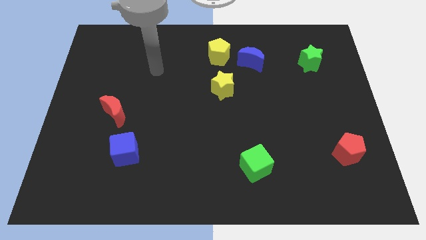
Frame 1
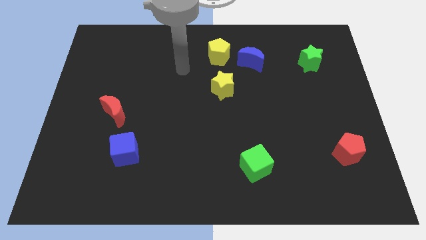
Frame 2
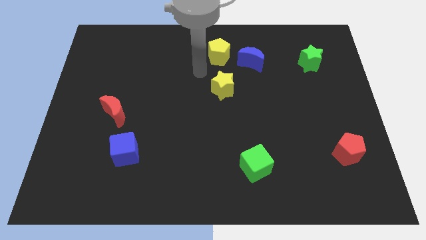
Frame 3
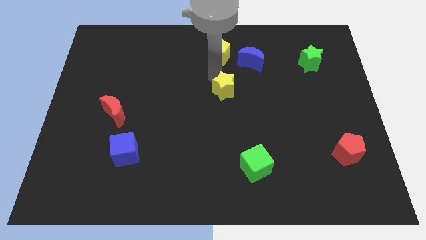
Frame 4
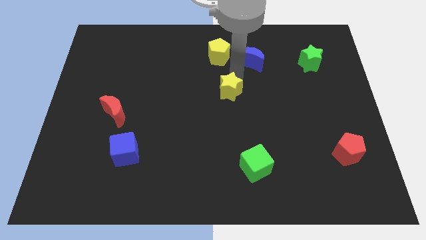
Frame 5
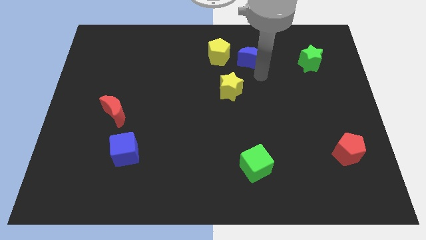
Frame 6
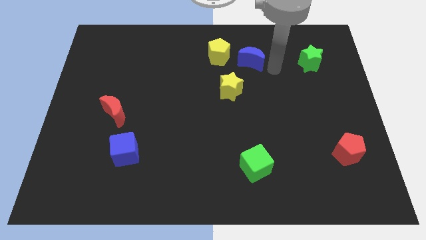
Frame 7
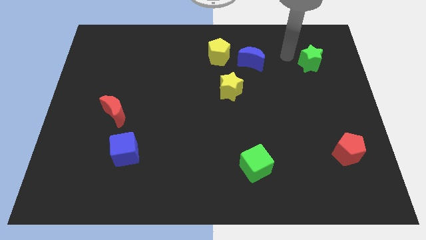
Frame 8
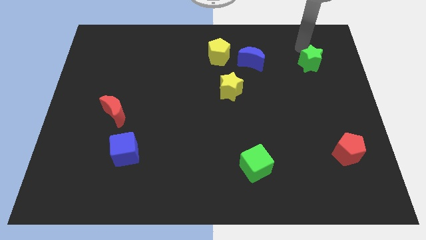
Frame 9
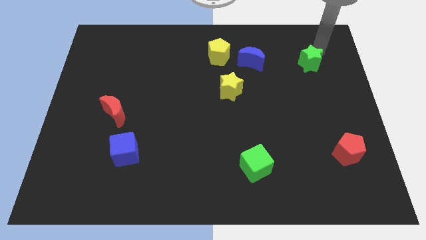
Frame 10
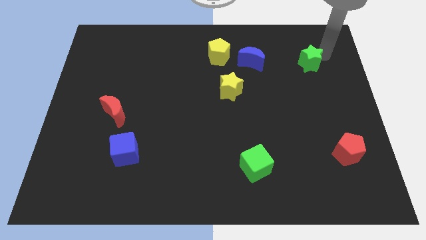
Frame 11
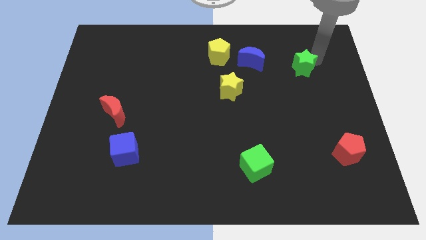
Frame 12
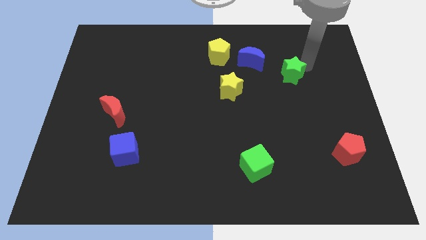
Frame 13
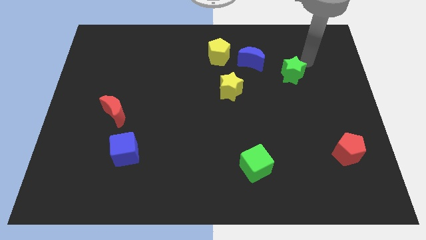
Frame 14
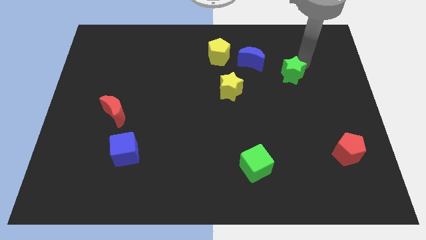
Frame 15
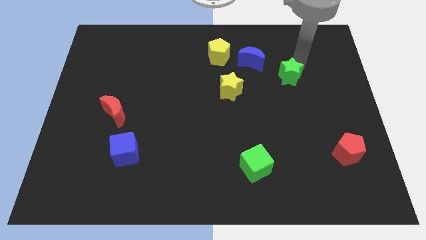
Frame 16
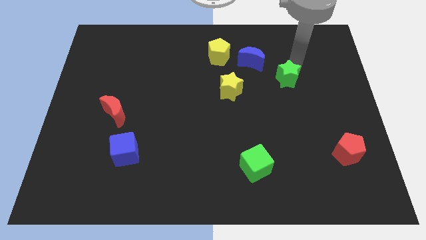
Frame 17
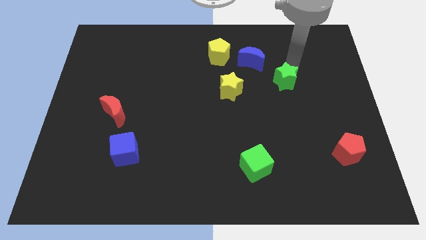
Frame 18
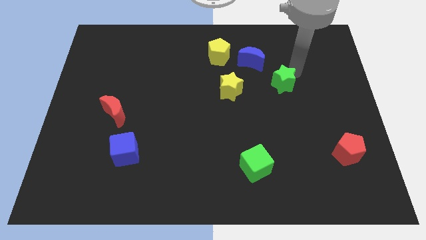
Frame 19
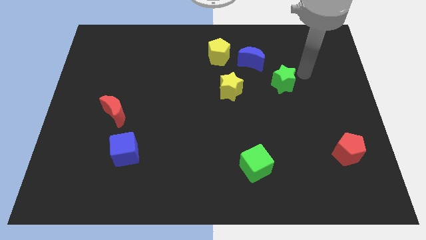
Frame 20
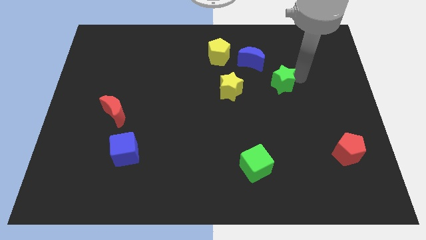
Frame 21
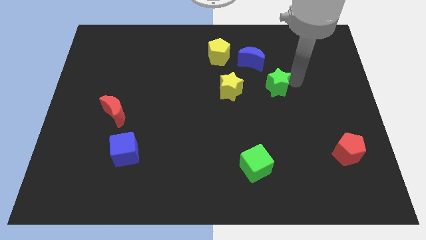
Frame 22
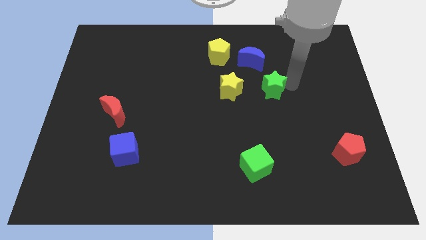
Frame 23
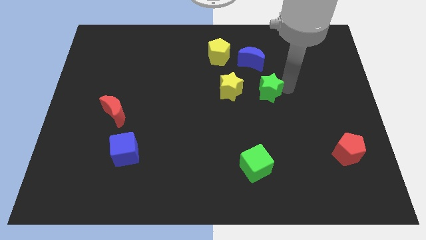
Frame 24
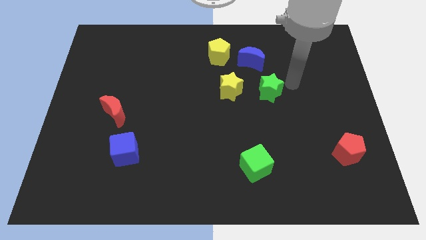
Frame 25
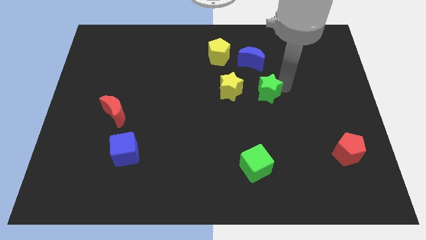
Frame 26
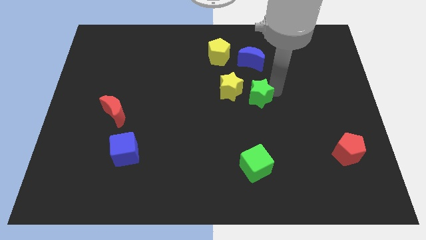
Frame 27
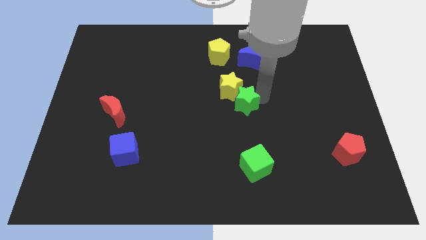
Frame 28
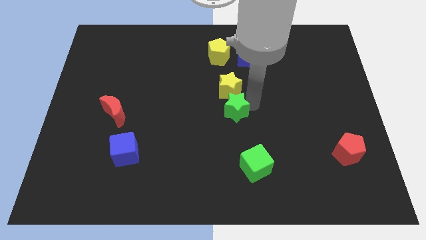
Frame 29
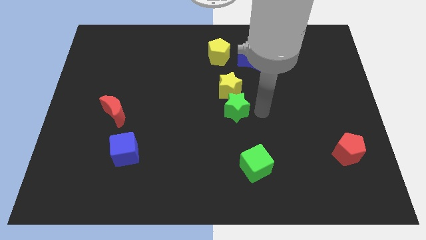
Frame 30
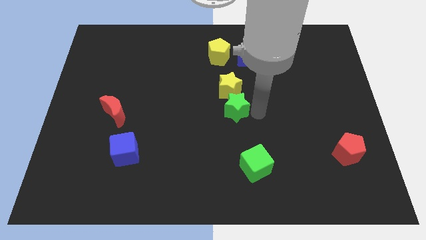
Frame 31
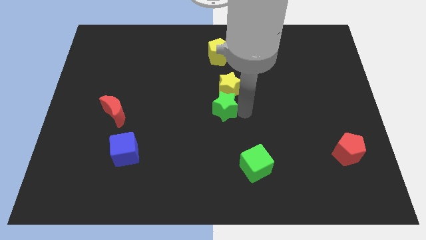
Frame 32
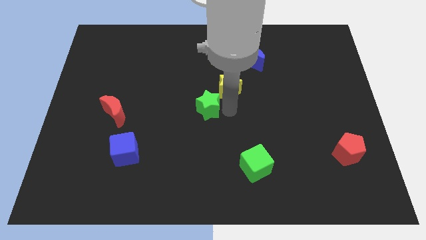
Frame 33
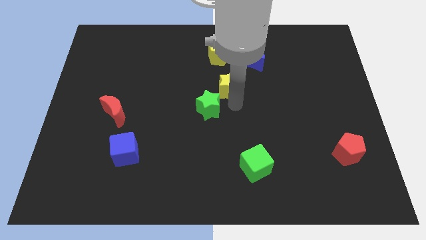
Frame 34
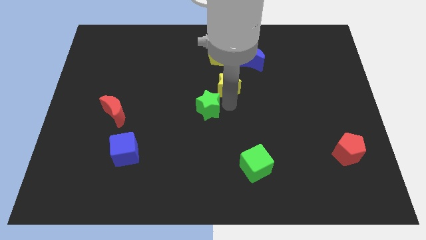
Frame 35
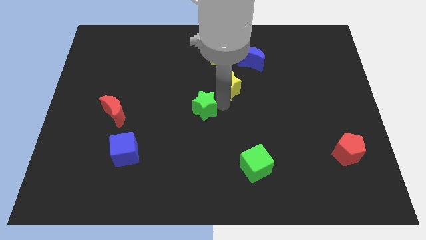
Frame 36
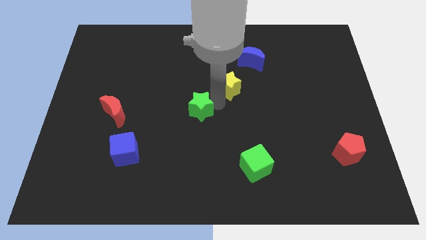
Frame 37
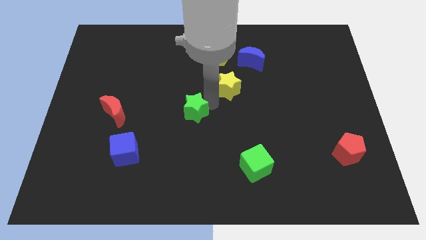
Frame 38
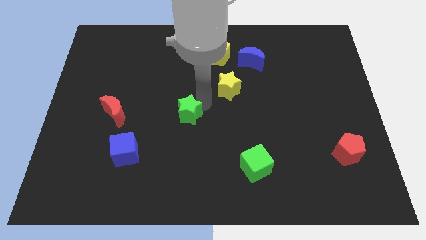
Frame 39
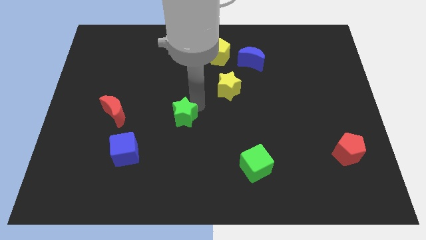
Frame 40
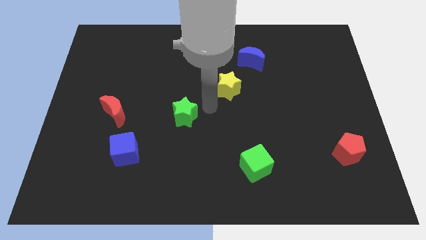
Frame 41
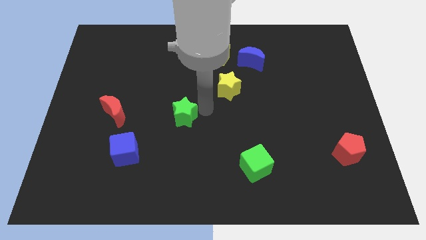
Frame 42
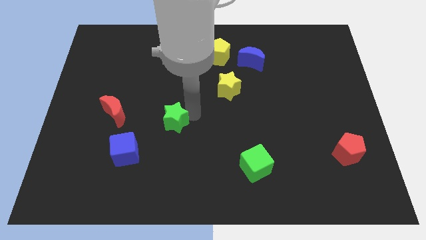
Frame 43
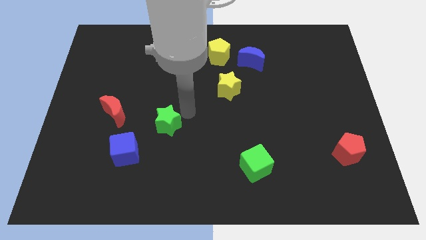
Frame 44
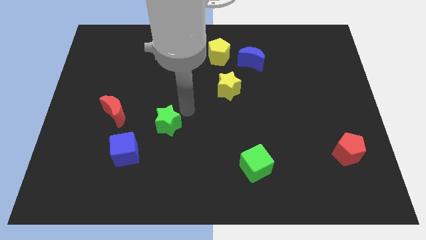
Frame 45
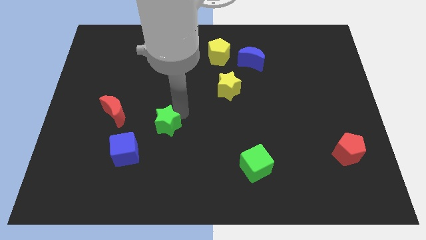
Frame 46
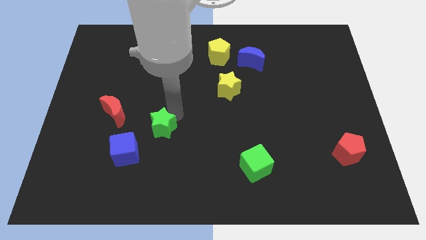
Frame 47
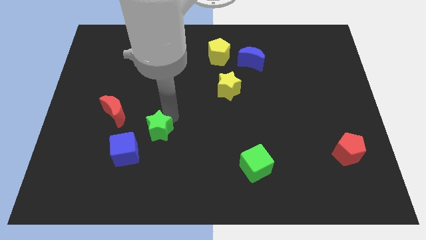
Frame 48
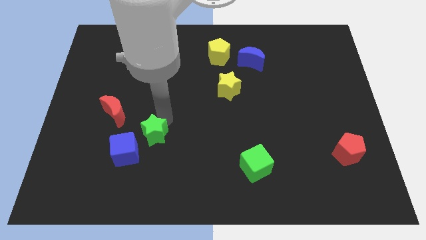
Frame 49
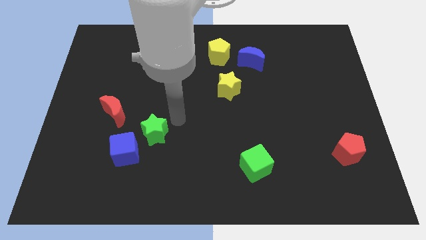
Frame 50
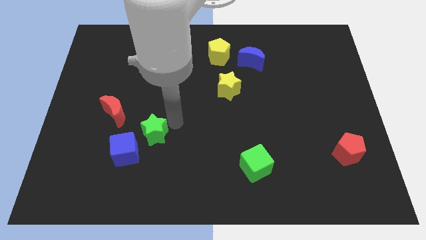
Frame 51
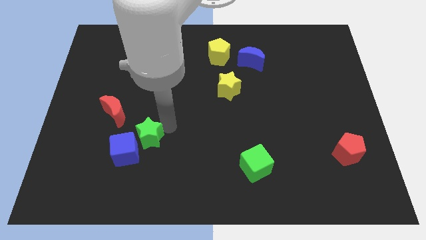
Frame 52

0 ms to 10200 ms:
push the green star next to the blue cube

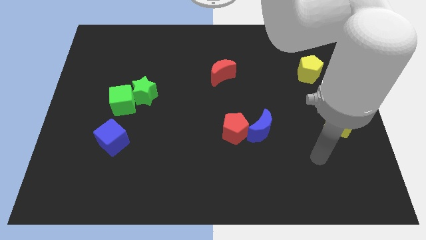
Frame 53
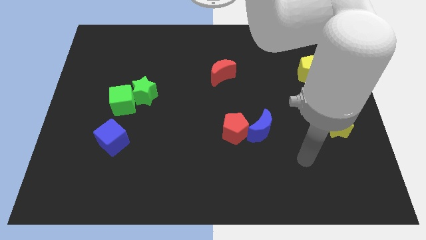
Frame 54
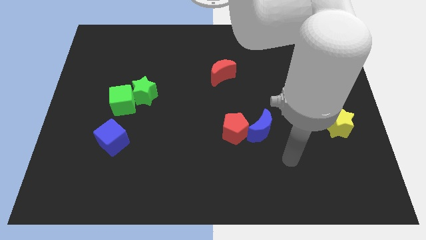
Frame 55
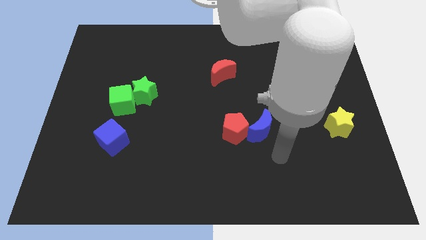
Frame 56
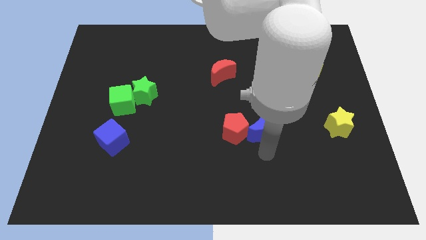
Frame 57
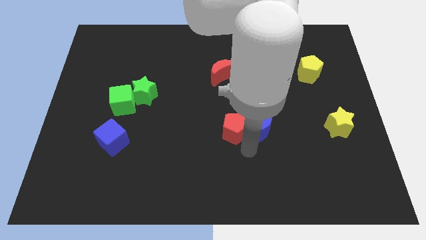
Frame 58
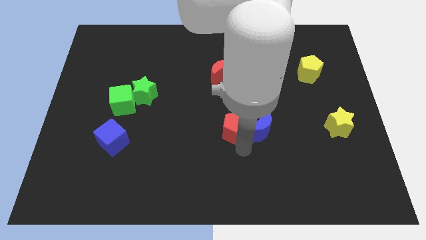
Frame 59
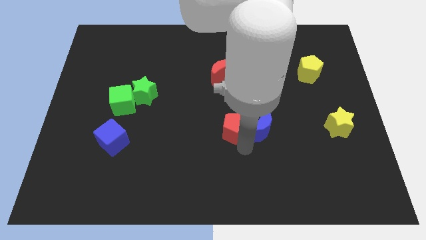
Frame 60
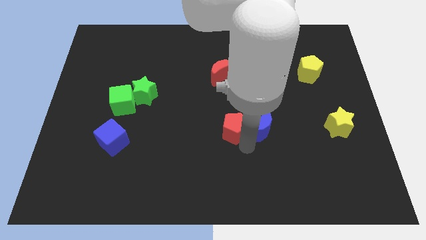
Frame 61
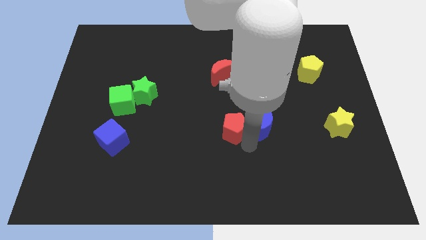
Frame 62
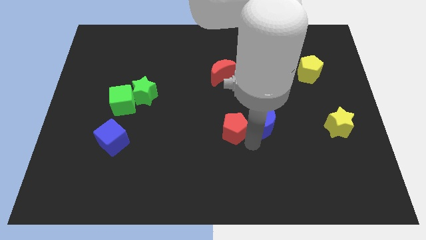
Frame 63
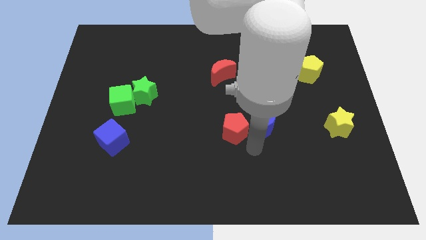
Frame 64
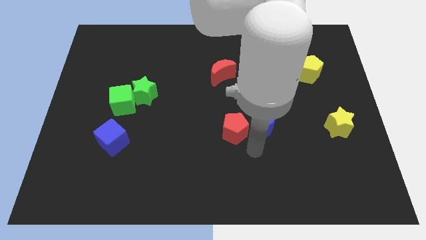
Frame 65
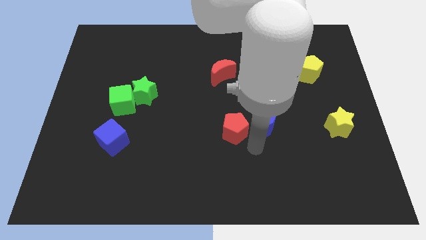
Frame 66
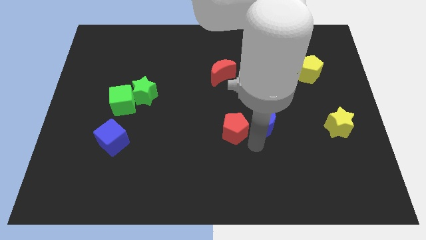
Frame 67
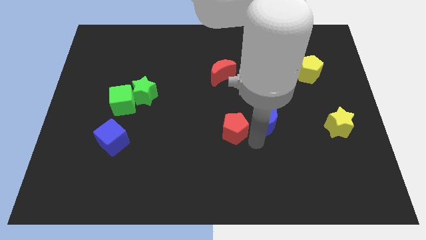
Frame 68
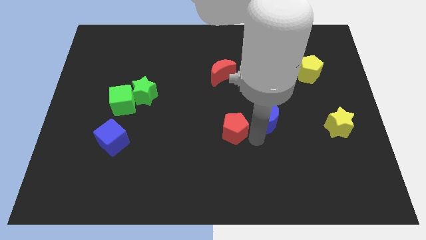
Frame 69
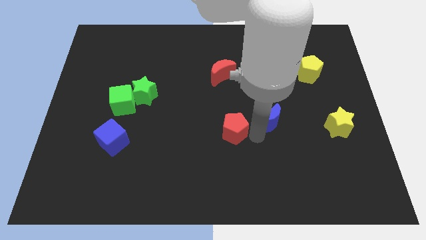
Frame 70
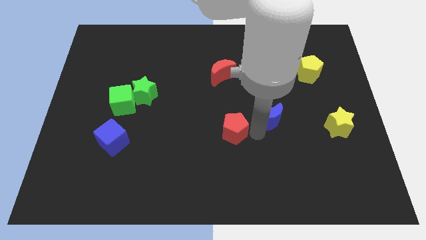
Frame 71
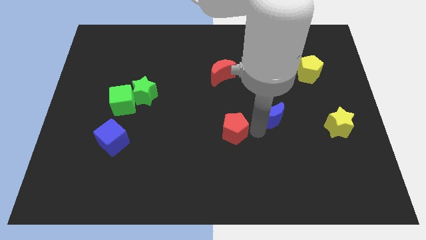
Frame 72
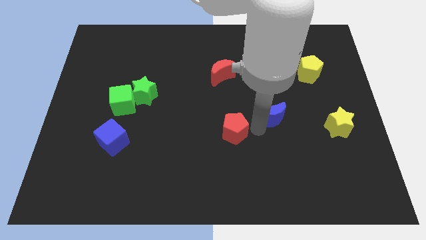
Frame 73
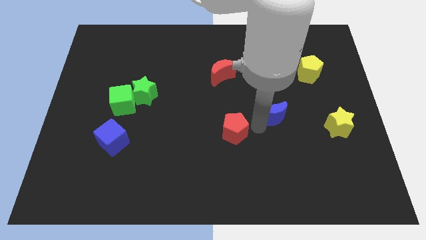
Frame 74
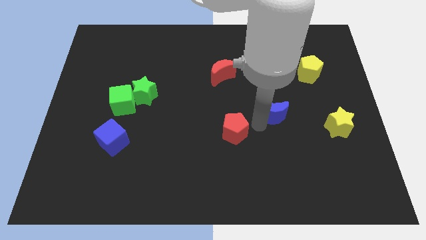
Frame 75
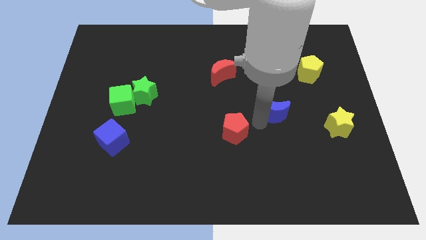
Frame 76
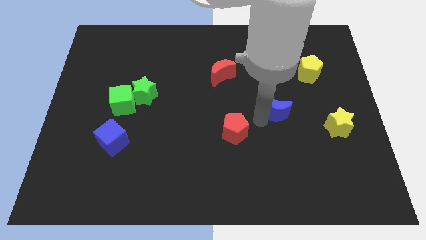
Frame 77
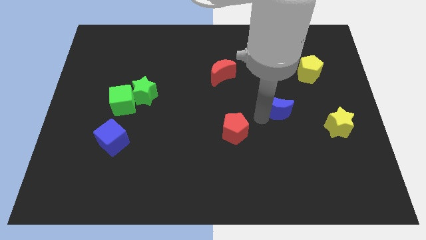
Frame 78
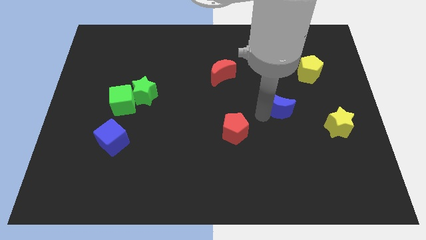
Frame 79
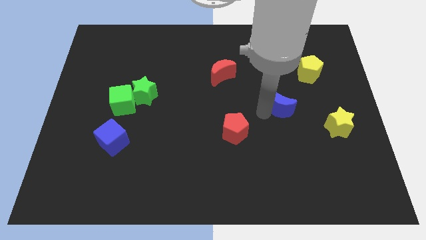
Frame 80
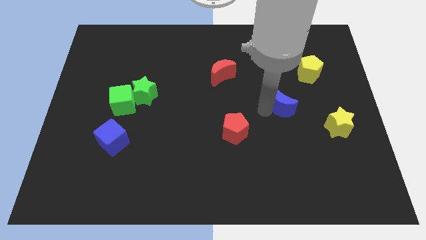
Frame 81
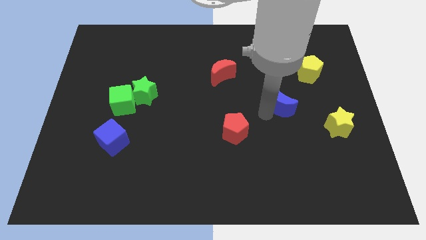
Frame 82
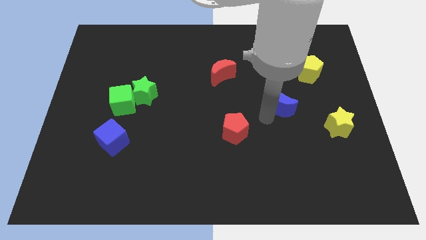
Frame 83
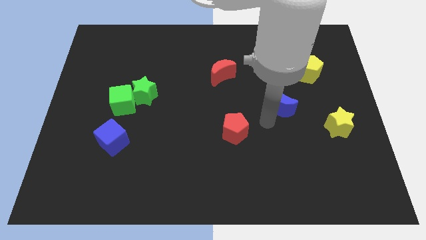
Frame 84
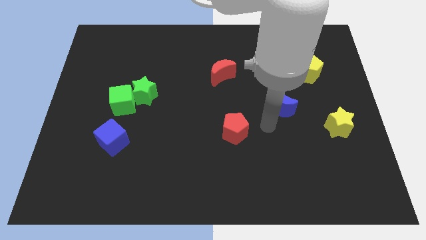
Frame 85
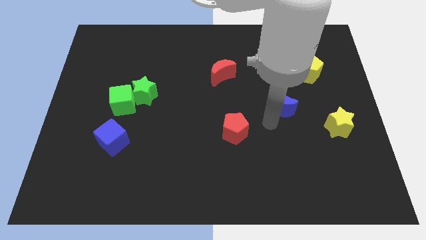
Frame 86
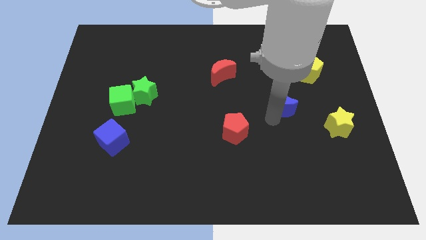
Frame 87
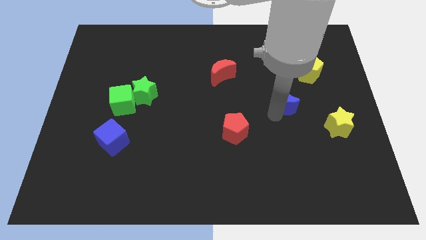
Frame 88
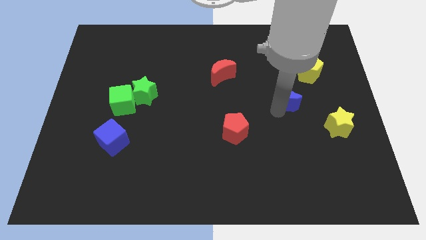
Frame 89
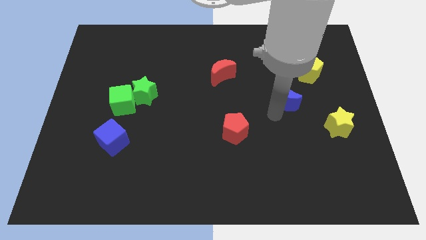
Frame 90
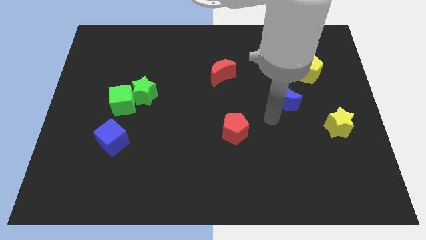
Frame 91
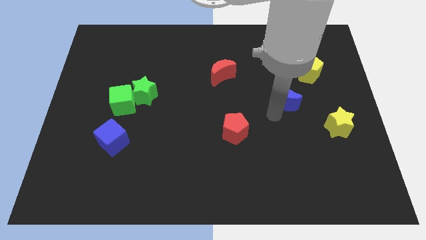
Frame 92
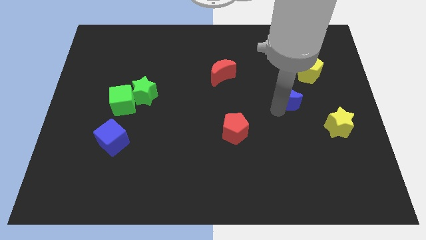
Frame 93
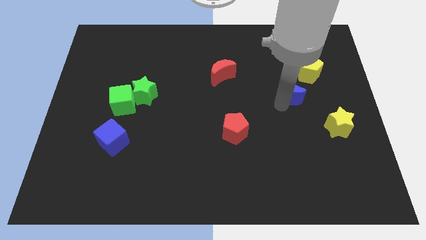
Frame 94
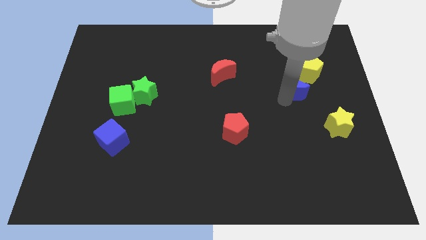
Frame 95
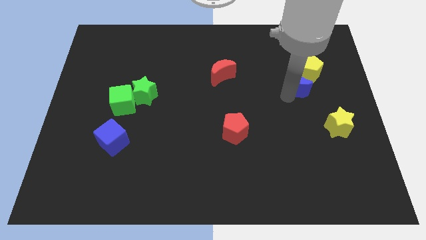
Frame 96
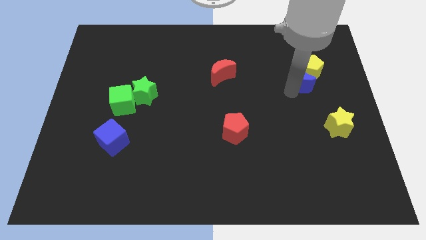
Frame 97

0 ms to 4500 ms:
push the blue moon towards the yellow pentagon
